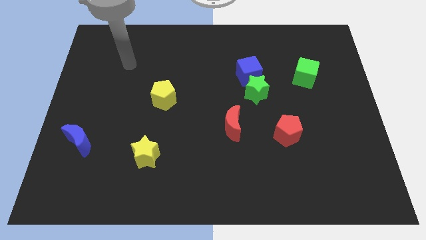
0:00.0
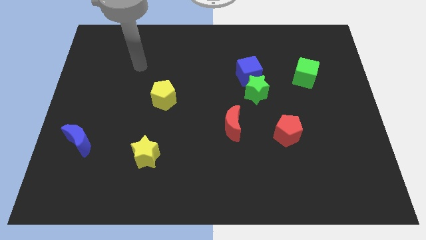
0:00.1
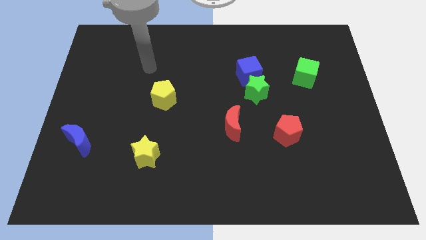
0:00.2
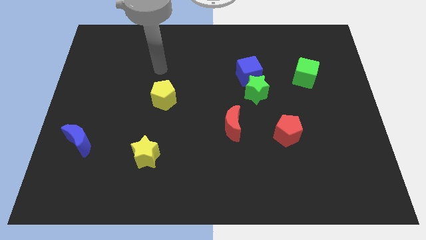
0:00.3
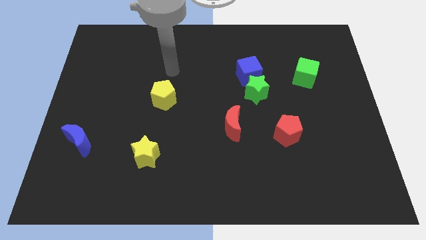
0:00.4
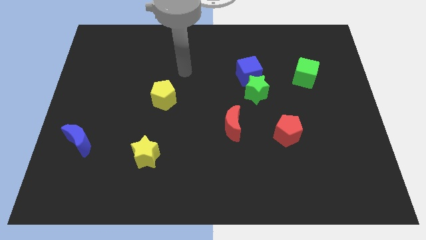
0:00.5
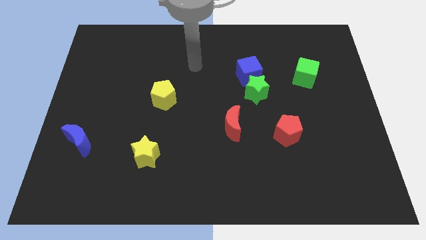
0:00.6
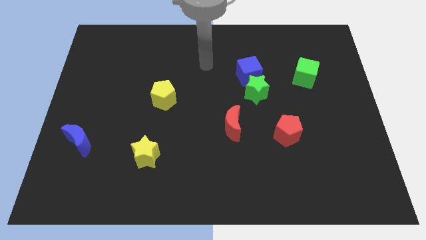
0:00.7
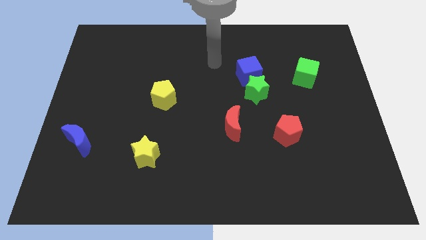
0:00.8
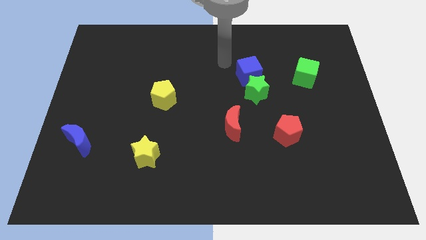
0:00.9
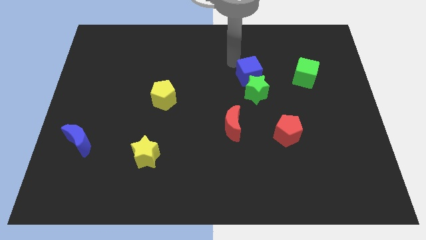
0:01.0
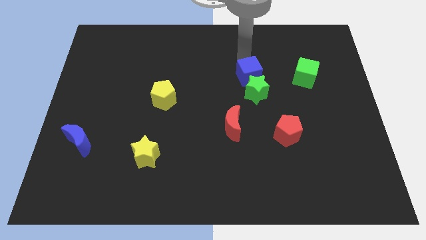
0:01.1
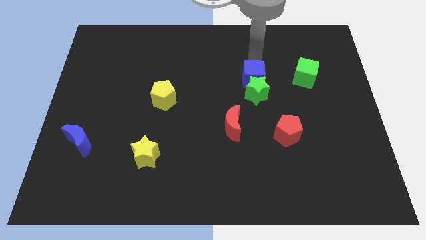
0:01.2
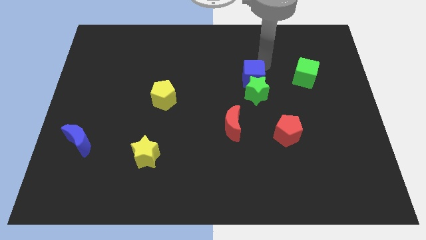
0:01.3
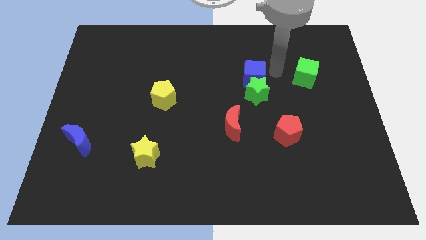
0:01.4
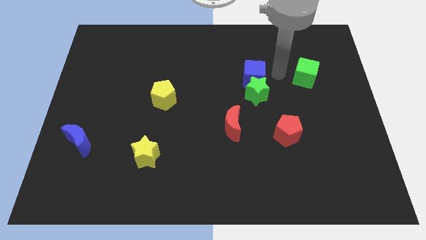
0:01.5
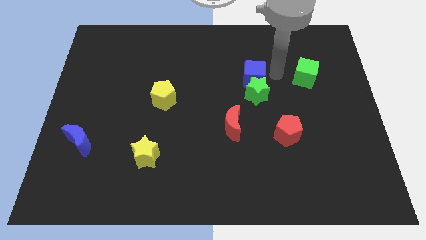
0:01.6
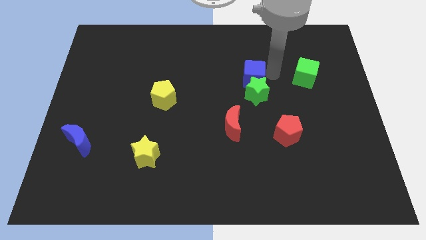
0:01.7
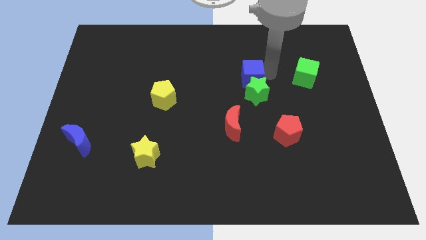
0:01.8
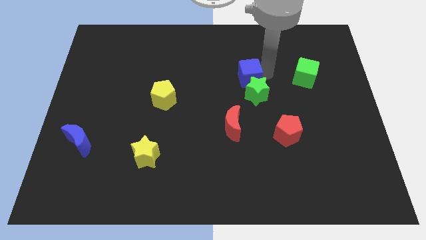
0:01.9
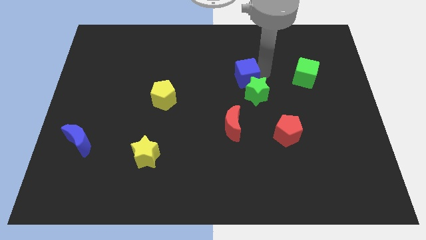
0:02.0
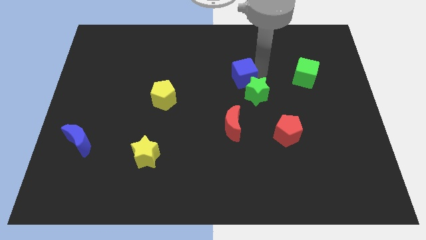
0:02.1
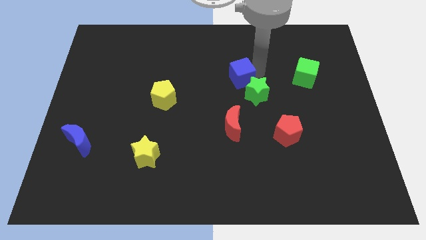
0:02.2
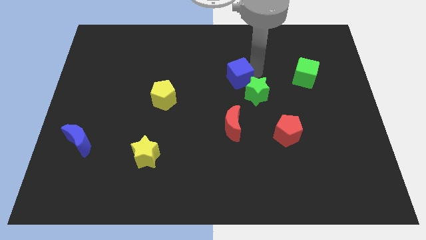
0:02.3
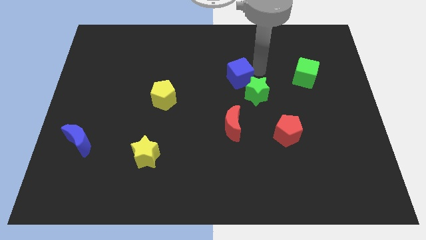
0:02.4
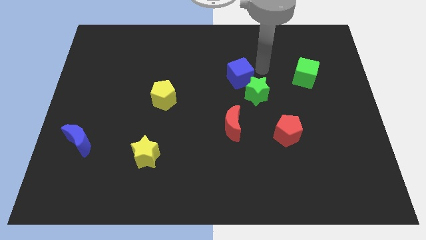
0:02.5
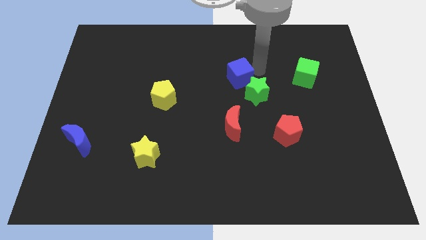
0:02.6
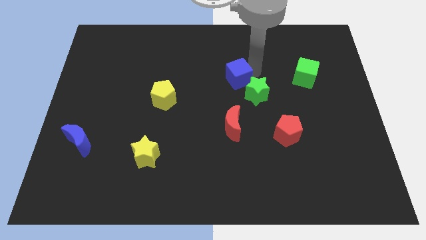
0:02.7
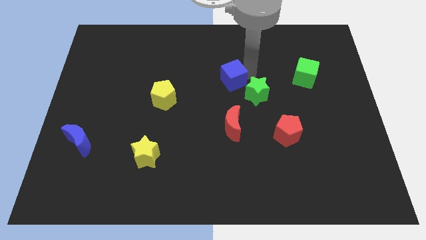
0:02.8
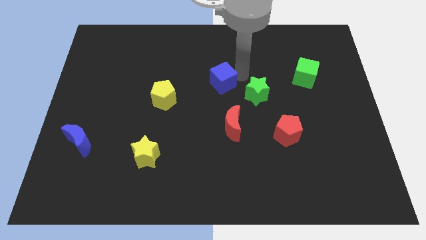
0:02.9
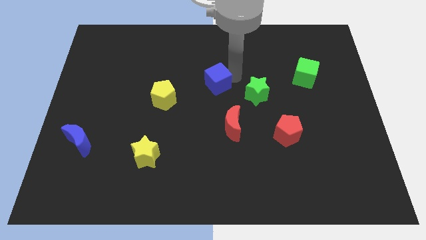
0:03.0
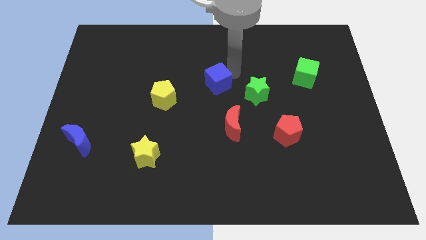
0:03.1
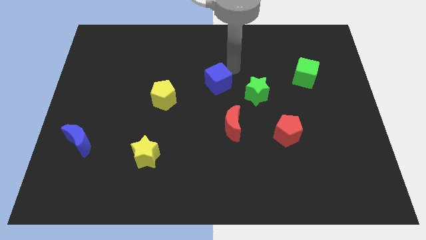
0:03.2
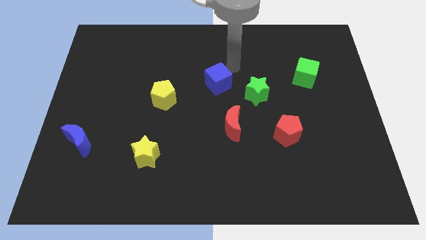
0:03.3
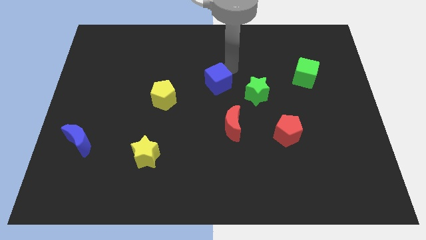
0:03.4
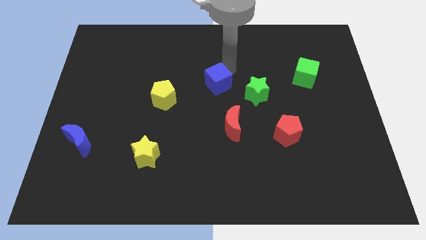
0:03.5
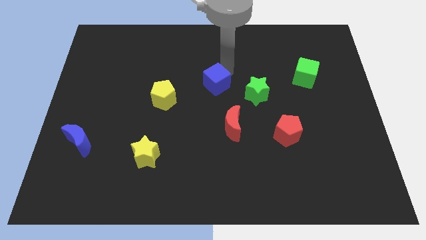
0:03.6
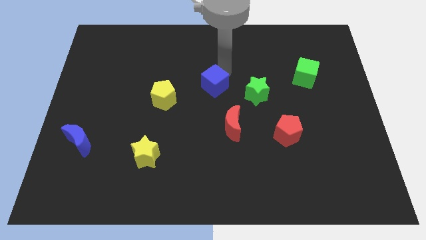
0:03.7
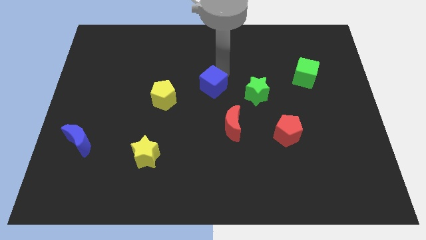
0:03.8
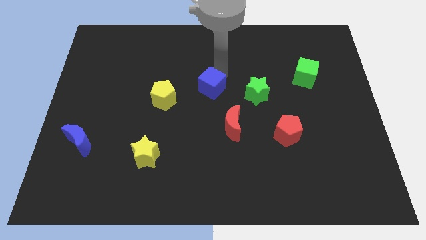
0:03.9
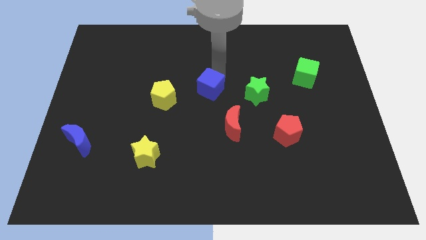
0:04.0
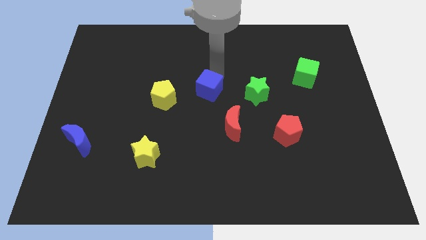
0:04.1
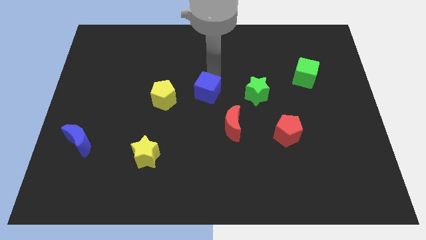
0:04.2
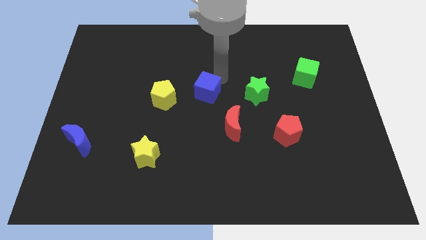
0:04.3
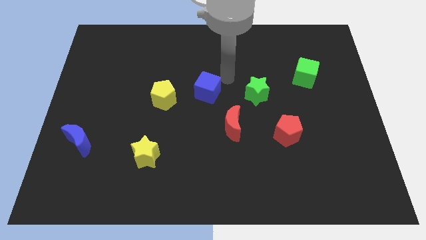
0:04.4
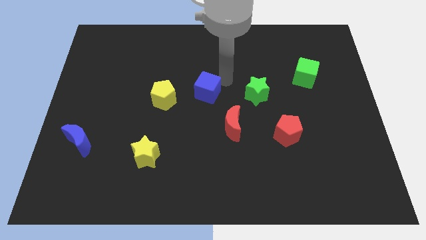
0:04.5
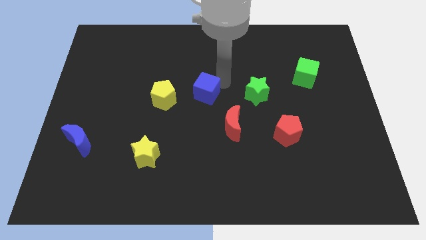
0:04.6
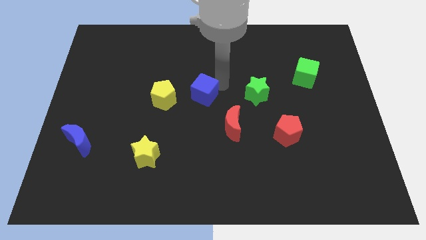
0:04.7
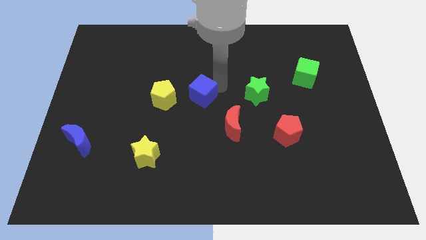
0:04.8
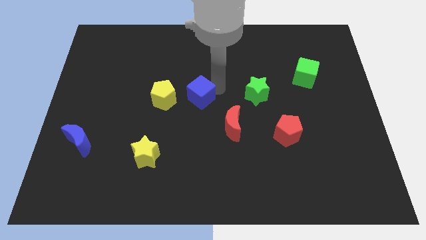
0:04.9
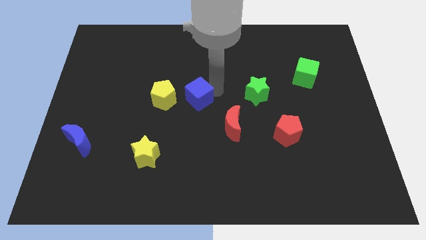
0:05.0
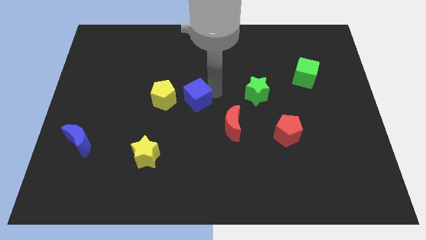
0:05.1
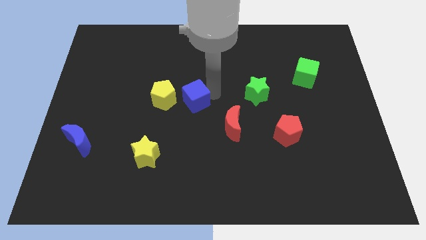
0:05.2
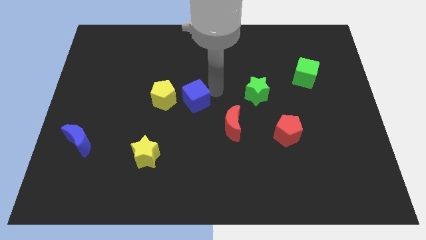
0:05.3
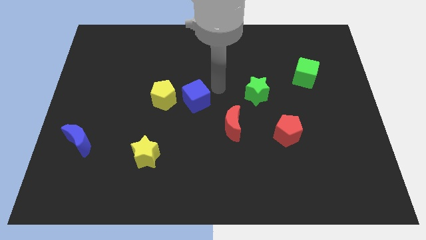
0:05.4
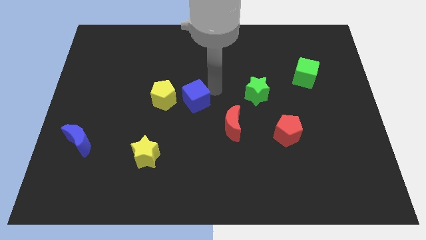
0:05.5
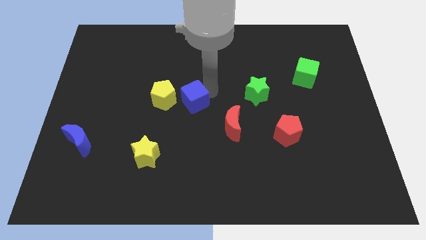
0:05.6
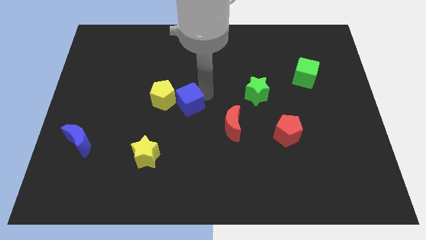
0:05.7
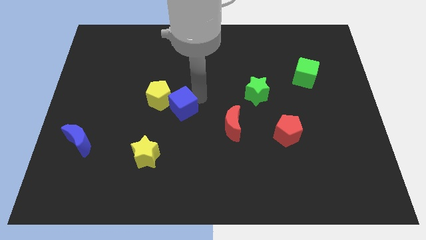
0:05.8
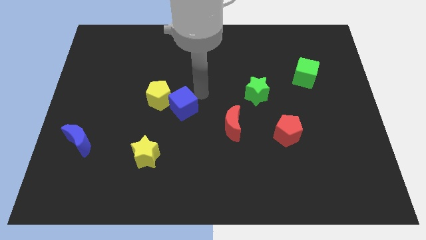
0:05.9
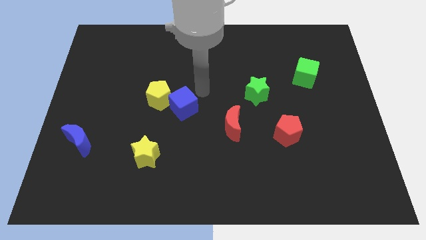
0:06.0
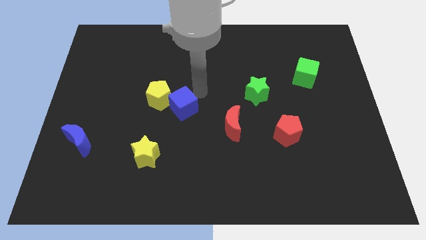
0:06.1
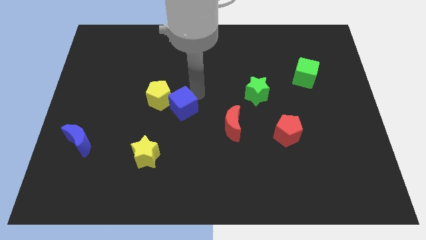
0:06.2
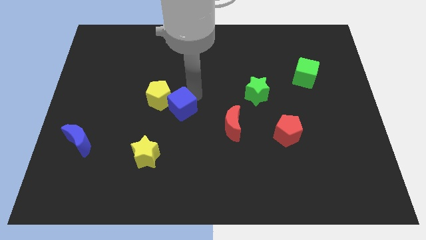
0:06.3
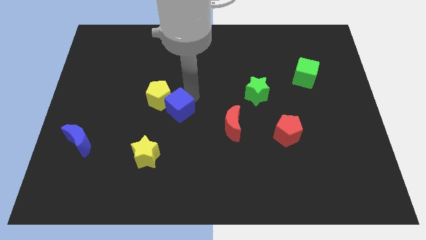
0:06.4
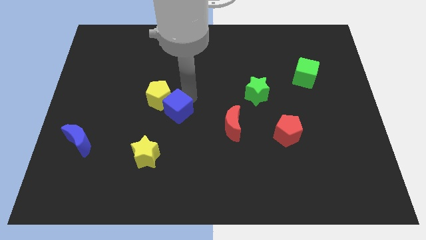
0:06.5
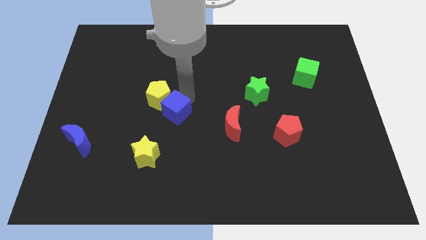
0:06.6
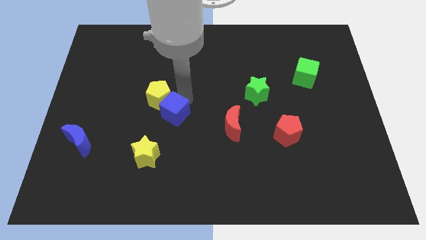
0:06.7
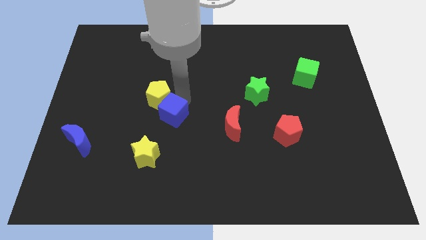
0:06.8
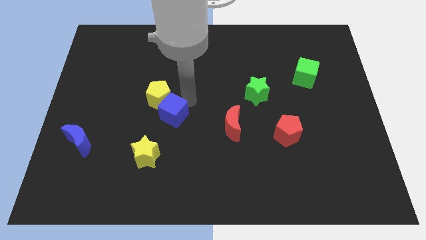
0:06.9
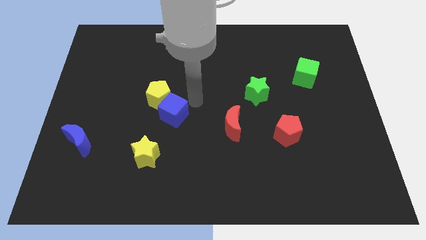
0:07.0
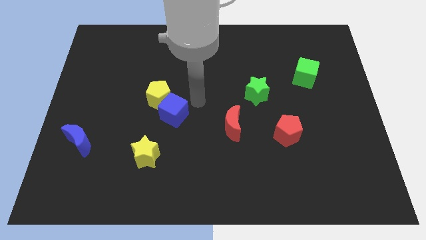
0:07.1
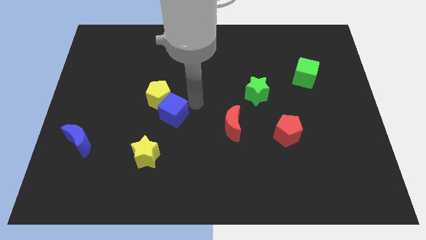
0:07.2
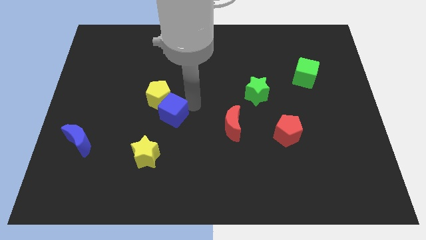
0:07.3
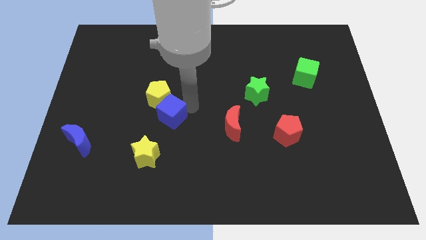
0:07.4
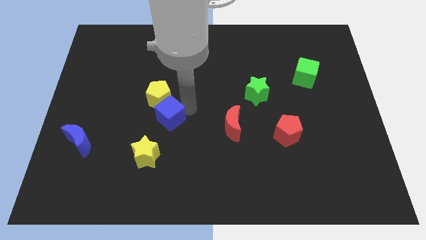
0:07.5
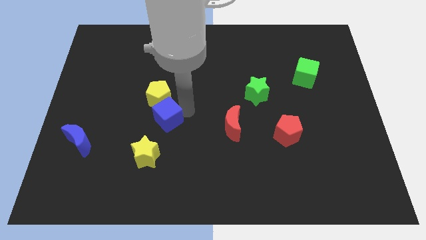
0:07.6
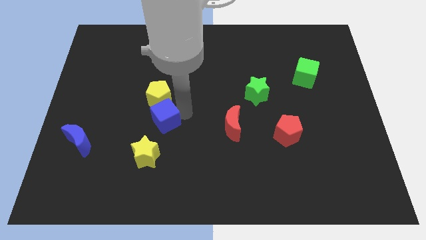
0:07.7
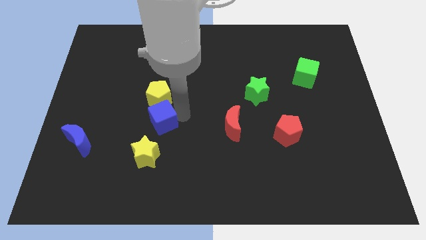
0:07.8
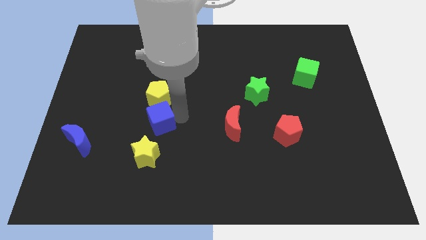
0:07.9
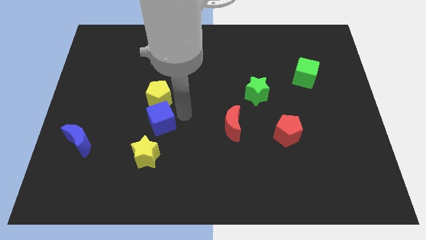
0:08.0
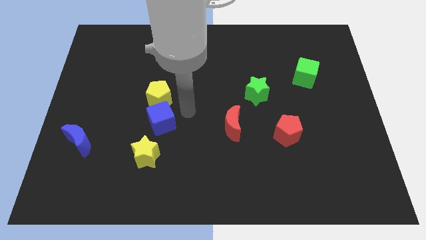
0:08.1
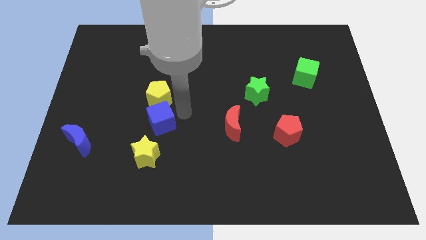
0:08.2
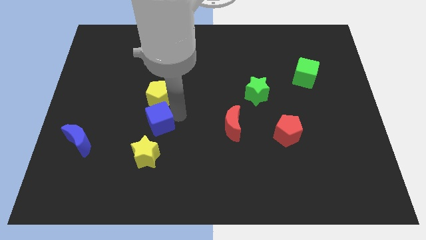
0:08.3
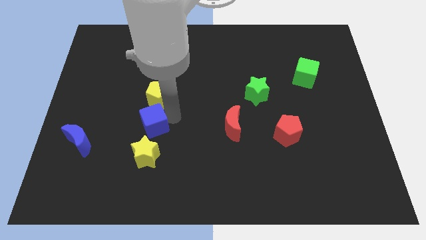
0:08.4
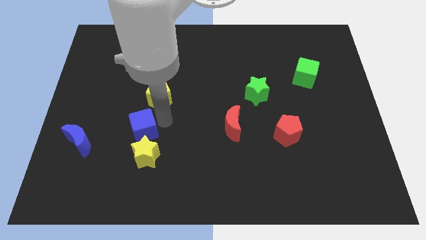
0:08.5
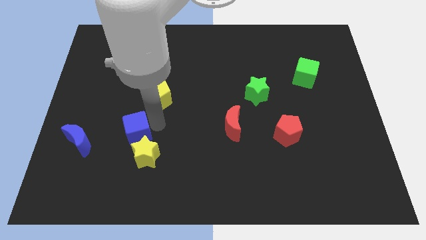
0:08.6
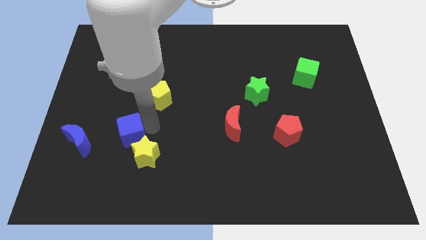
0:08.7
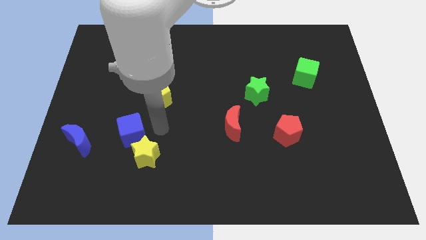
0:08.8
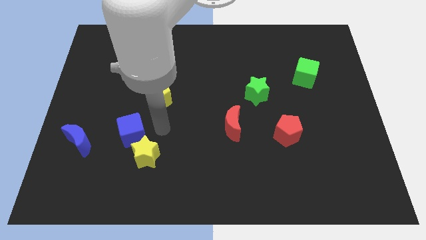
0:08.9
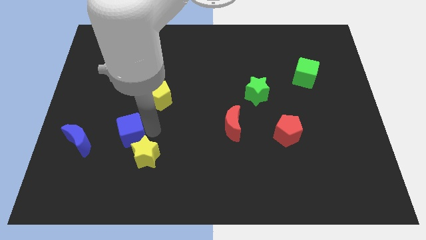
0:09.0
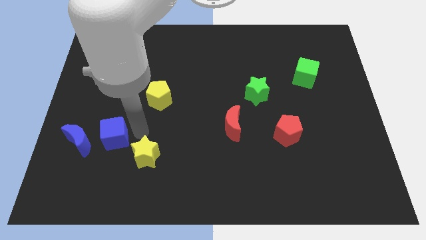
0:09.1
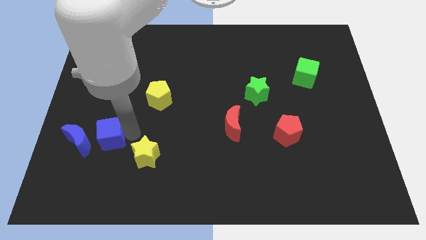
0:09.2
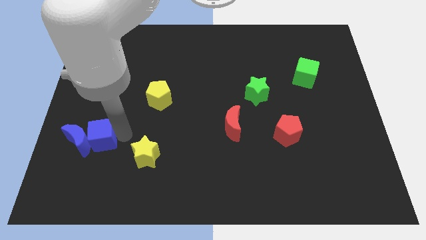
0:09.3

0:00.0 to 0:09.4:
move the blue cube close to the blue moon
